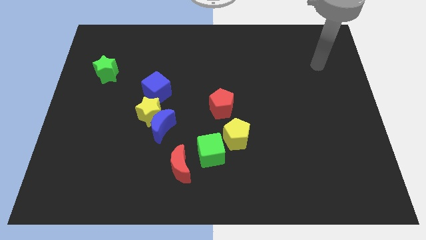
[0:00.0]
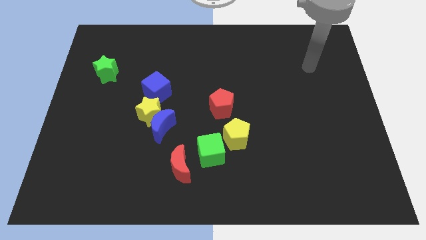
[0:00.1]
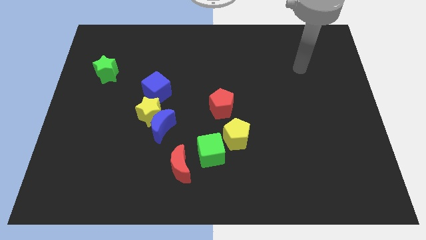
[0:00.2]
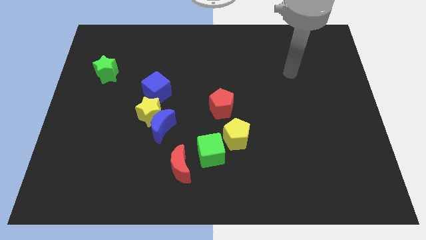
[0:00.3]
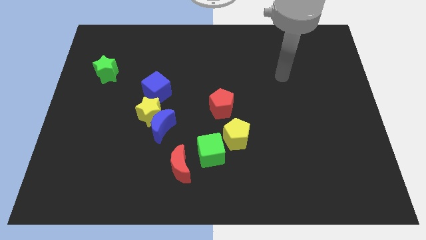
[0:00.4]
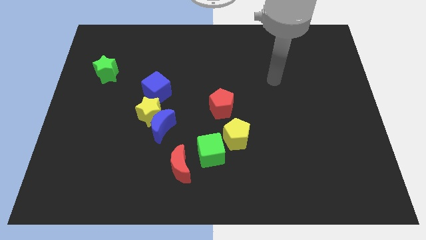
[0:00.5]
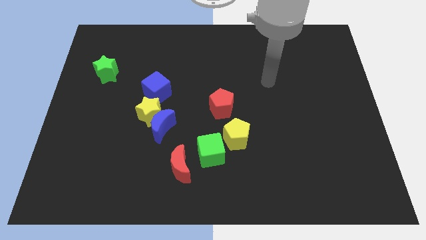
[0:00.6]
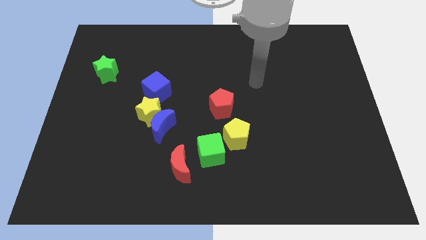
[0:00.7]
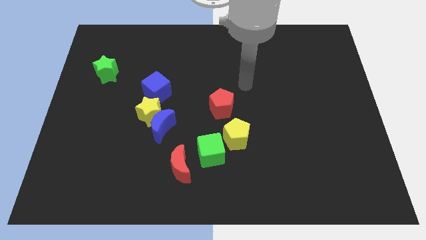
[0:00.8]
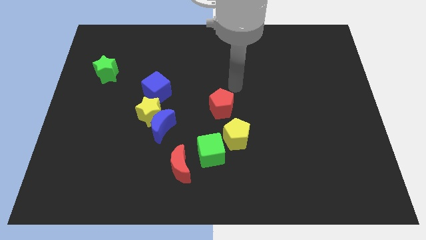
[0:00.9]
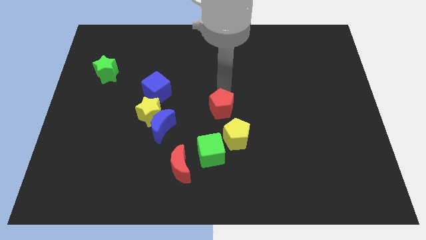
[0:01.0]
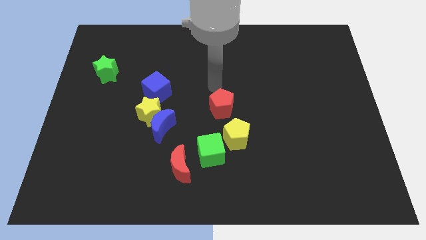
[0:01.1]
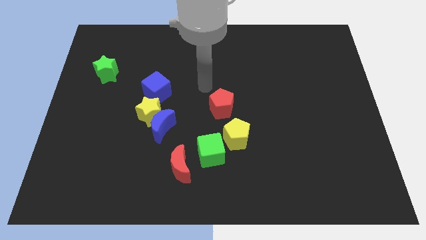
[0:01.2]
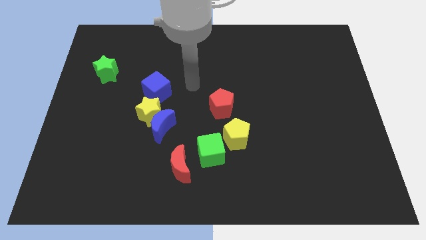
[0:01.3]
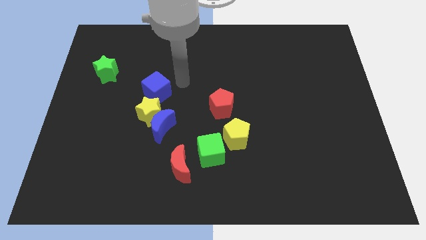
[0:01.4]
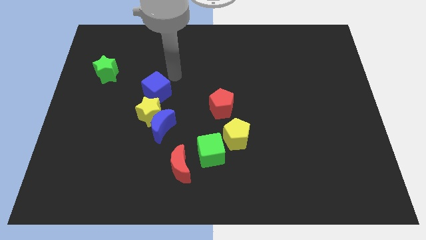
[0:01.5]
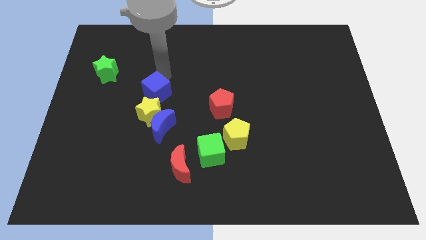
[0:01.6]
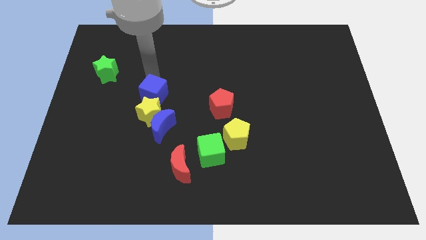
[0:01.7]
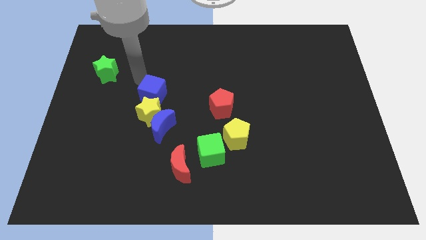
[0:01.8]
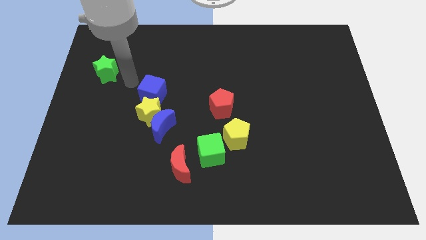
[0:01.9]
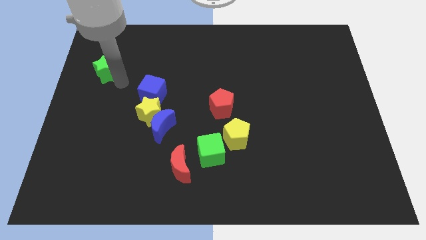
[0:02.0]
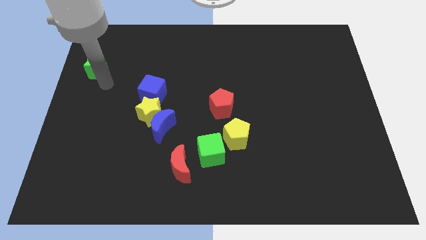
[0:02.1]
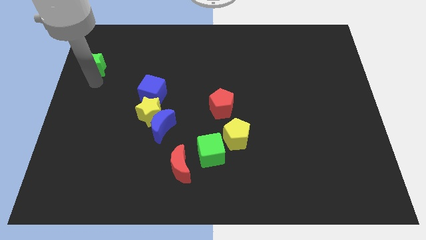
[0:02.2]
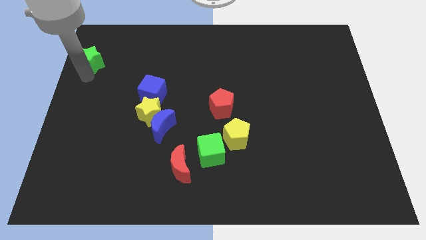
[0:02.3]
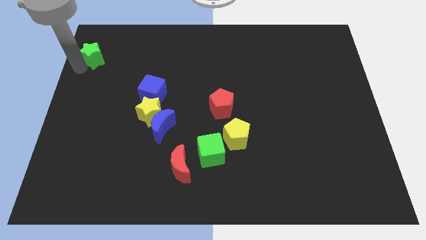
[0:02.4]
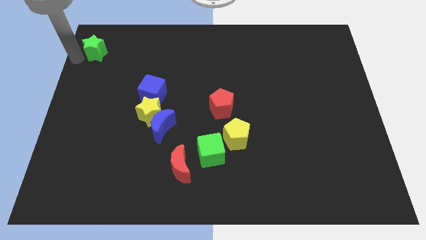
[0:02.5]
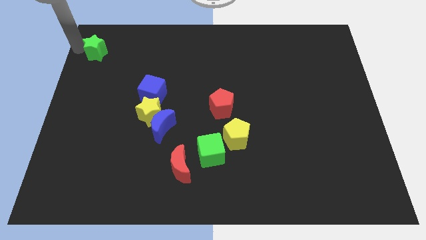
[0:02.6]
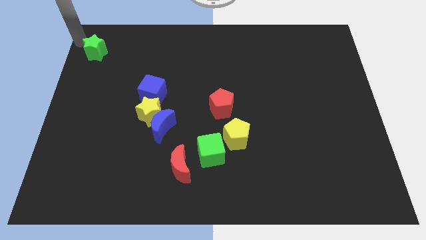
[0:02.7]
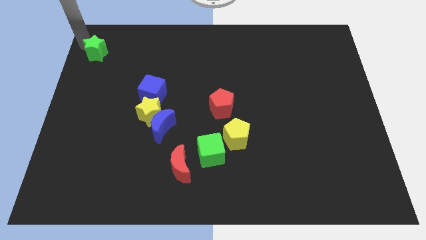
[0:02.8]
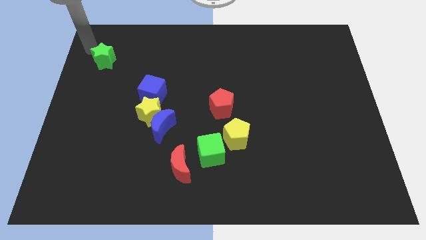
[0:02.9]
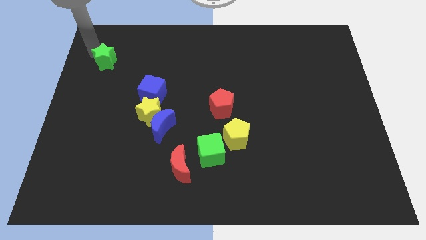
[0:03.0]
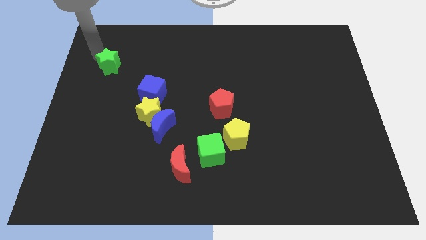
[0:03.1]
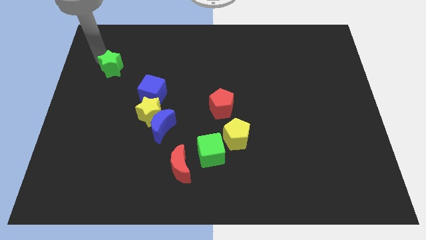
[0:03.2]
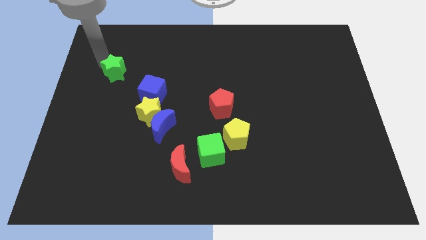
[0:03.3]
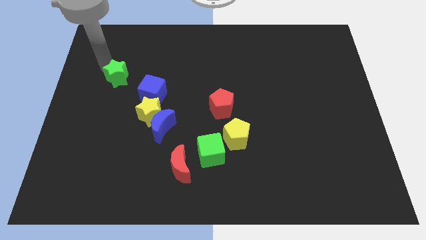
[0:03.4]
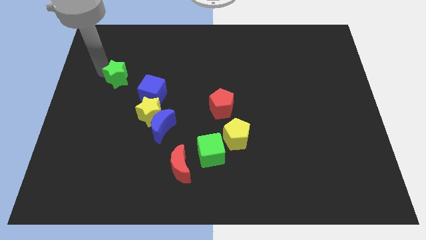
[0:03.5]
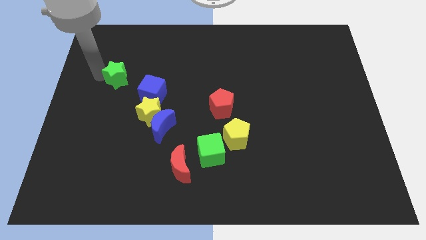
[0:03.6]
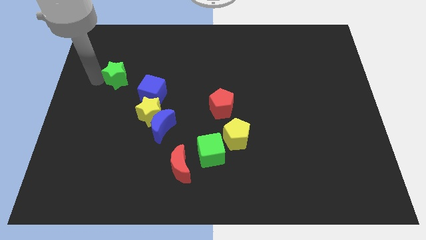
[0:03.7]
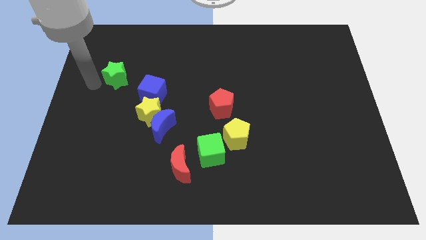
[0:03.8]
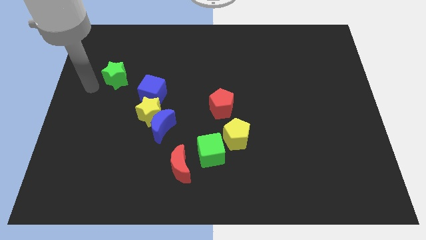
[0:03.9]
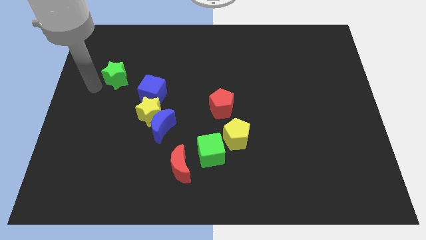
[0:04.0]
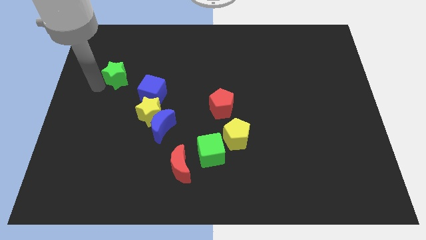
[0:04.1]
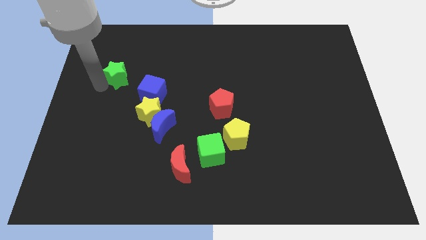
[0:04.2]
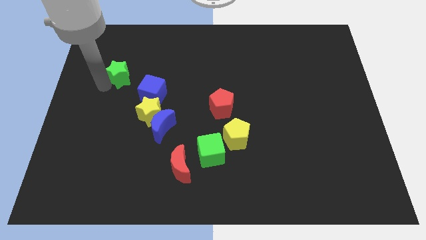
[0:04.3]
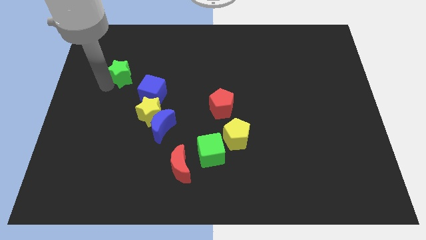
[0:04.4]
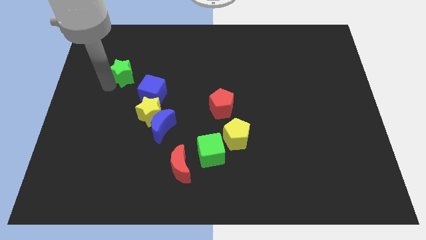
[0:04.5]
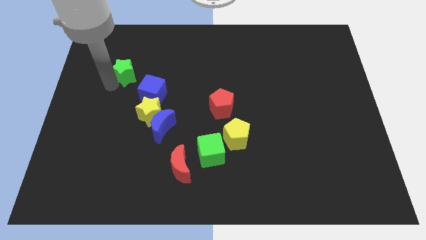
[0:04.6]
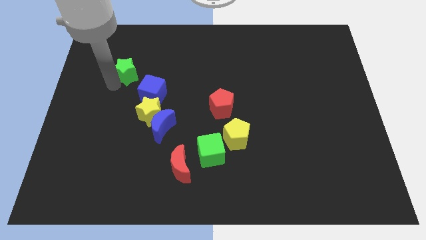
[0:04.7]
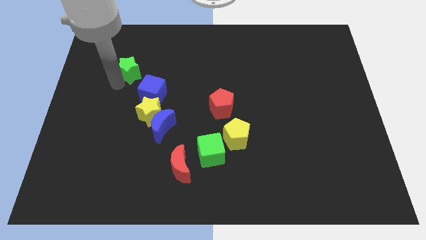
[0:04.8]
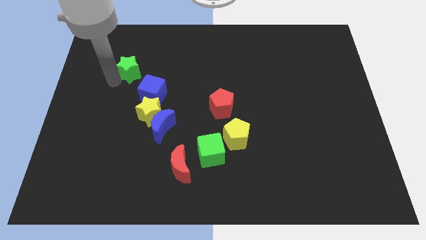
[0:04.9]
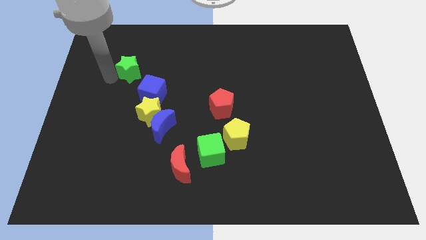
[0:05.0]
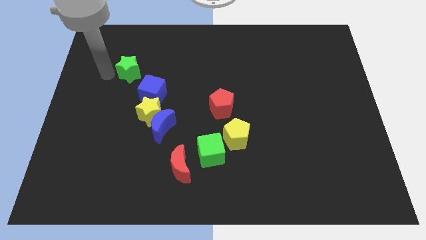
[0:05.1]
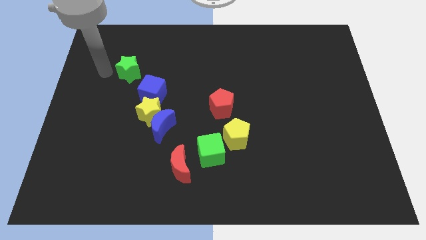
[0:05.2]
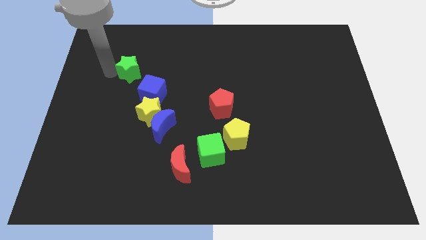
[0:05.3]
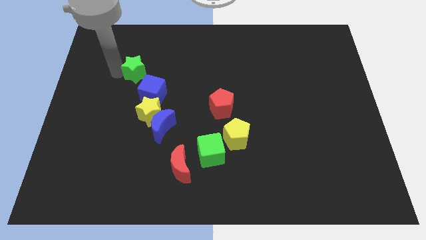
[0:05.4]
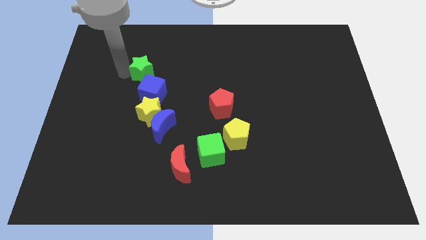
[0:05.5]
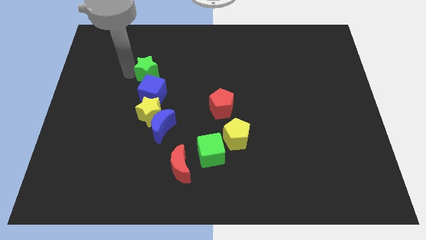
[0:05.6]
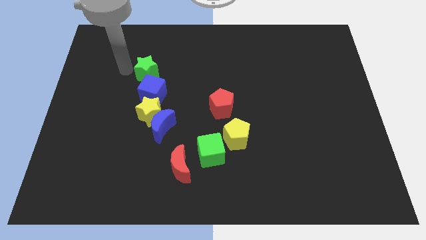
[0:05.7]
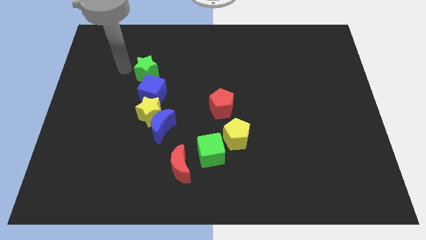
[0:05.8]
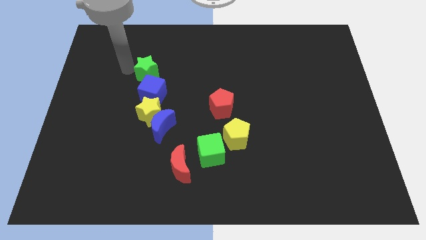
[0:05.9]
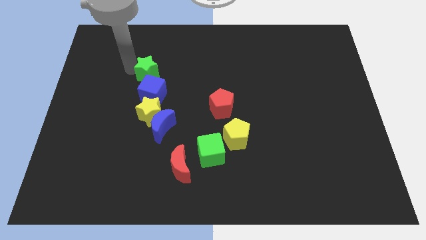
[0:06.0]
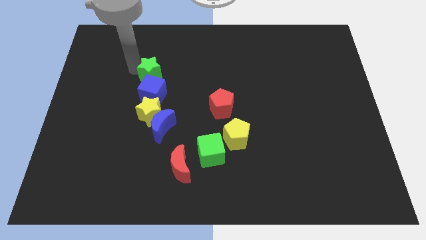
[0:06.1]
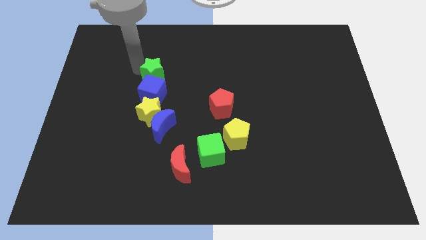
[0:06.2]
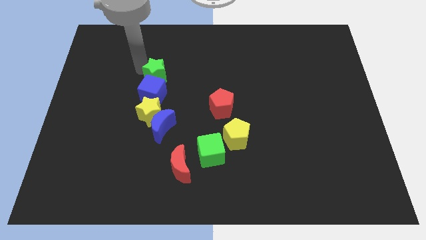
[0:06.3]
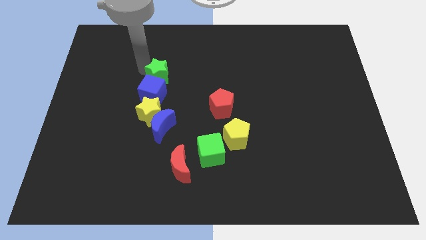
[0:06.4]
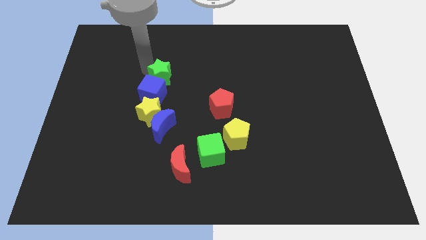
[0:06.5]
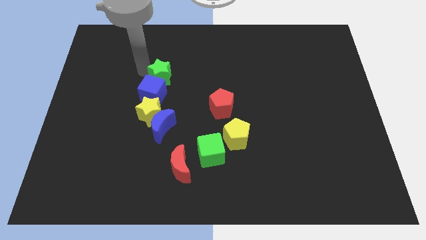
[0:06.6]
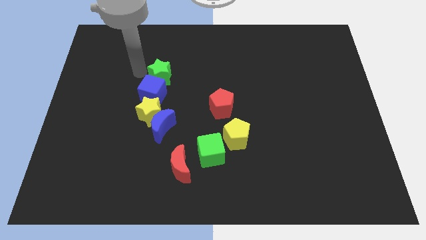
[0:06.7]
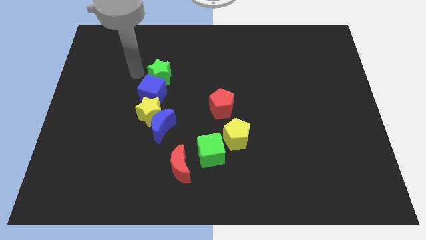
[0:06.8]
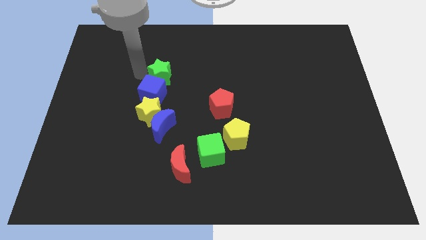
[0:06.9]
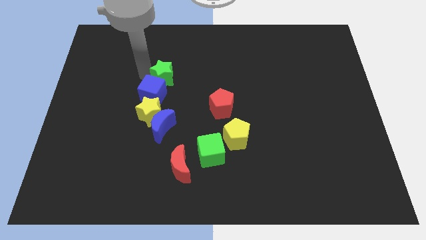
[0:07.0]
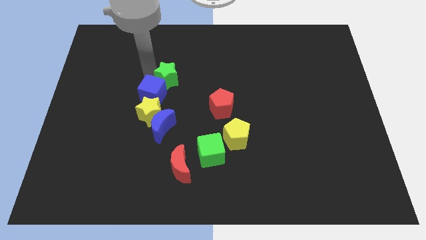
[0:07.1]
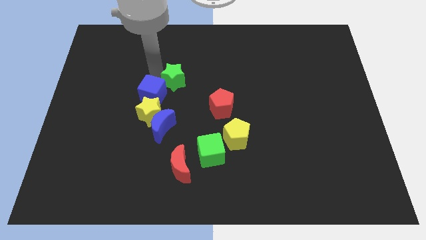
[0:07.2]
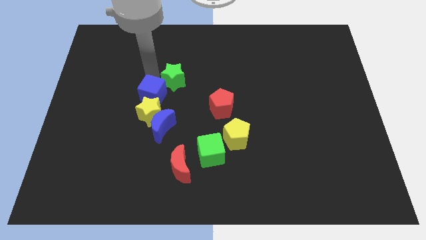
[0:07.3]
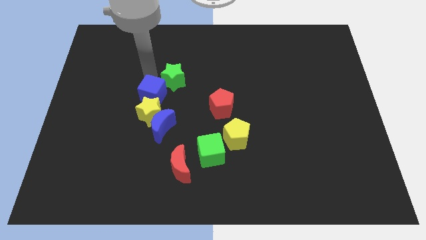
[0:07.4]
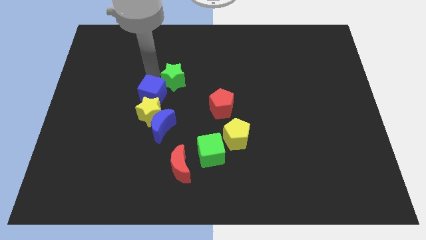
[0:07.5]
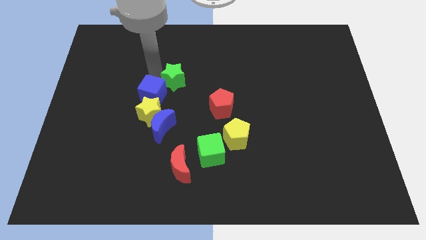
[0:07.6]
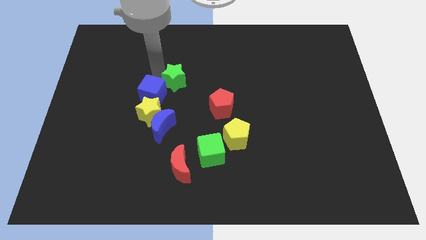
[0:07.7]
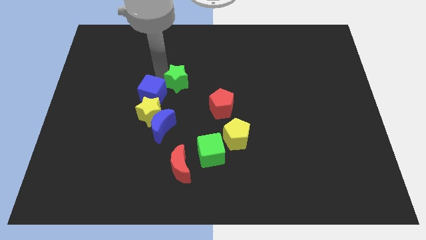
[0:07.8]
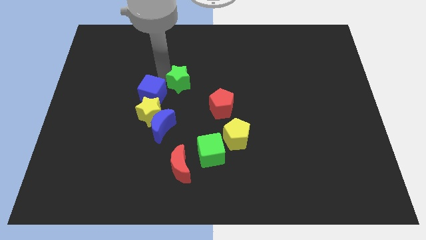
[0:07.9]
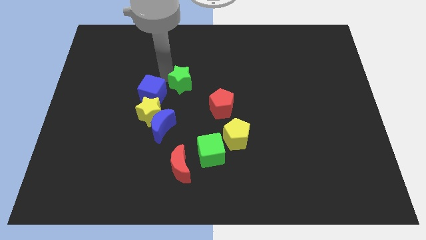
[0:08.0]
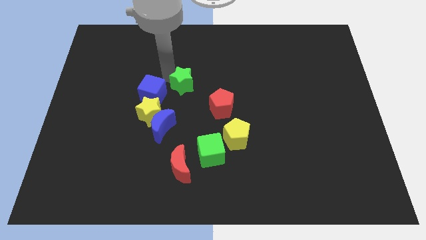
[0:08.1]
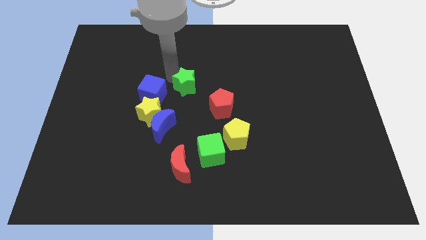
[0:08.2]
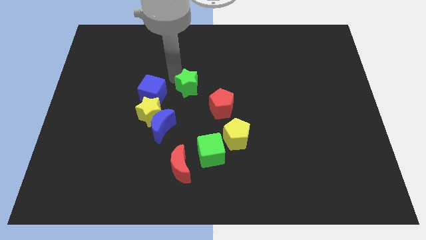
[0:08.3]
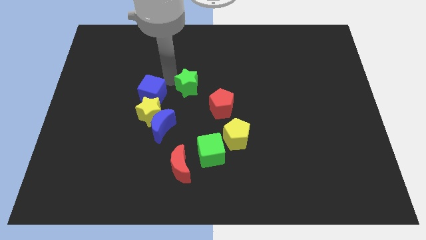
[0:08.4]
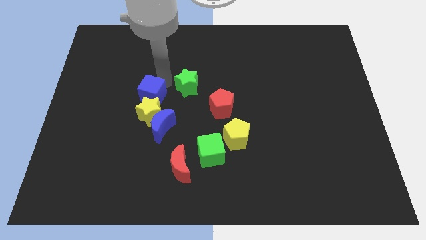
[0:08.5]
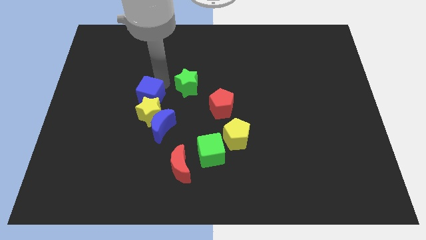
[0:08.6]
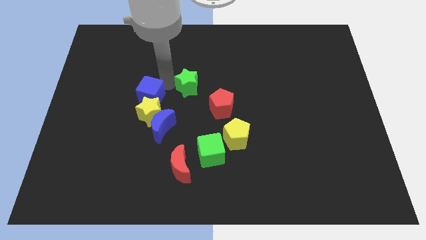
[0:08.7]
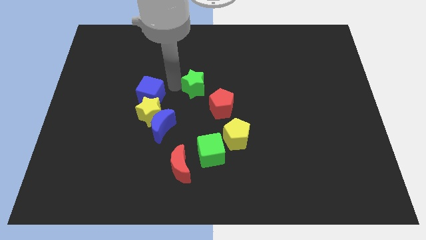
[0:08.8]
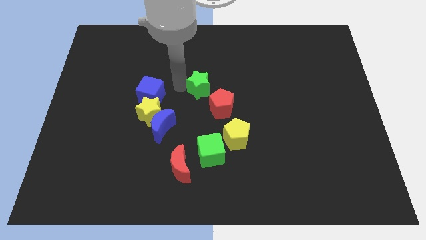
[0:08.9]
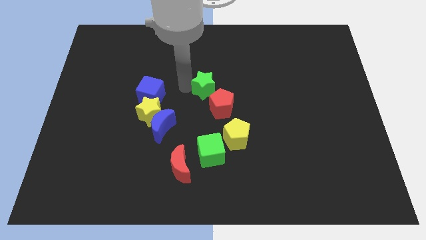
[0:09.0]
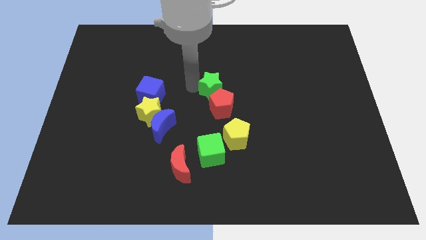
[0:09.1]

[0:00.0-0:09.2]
push the green star next to the red pentagon
